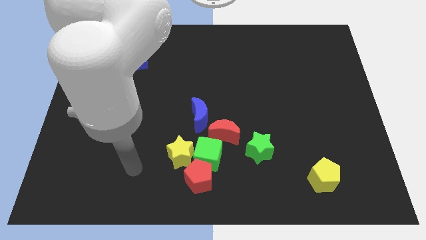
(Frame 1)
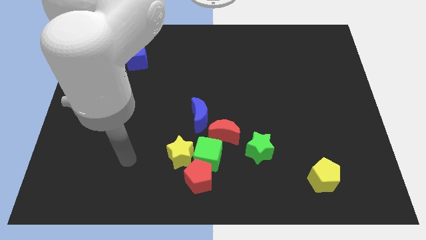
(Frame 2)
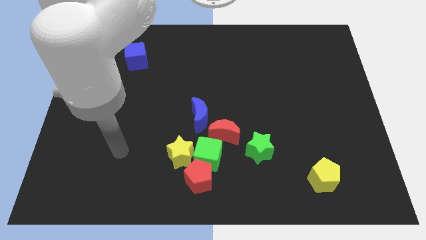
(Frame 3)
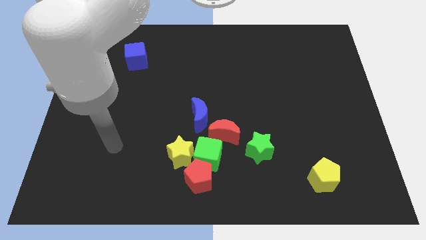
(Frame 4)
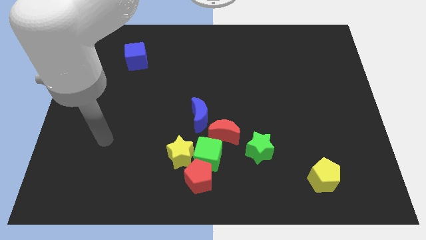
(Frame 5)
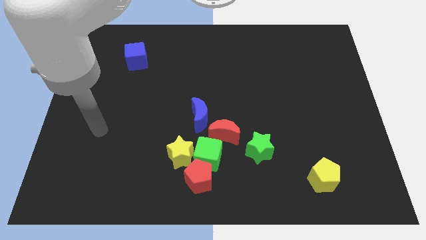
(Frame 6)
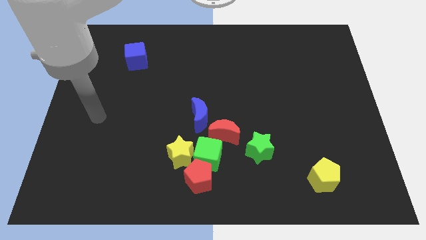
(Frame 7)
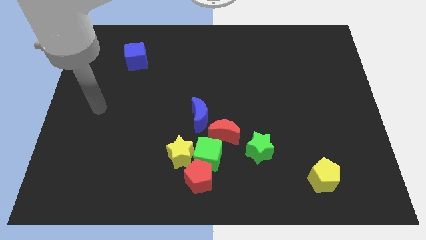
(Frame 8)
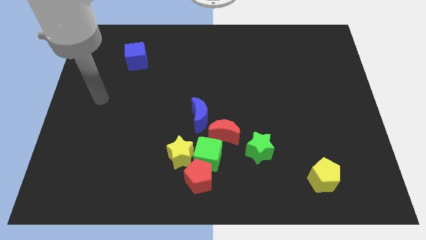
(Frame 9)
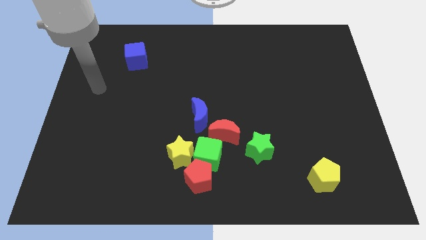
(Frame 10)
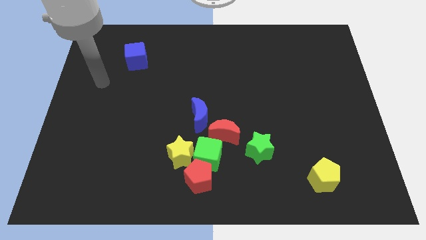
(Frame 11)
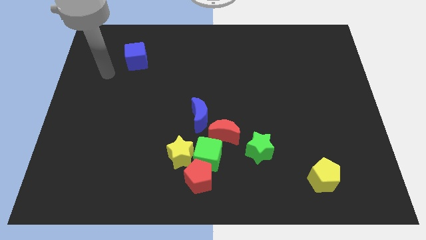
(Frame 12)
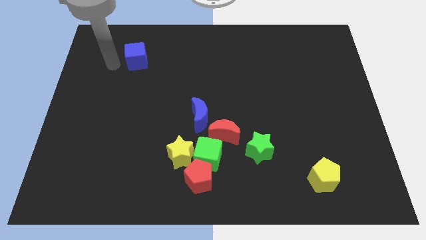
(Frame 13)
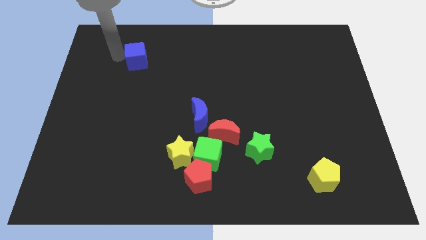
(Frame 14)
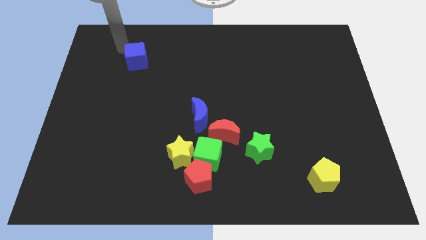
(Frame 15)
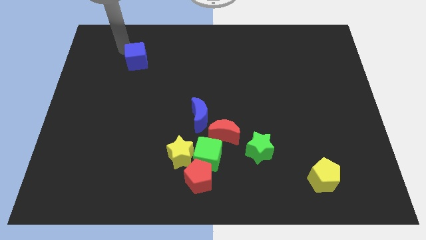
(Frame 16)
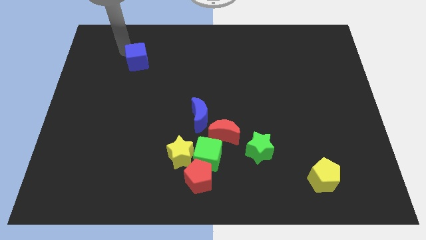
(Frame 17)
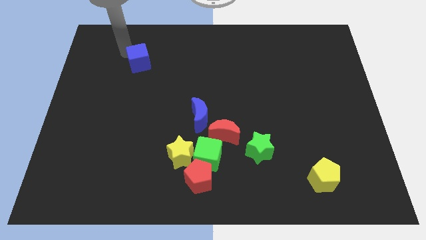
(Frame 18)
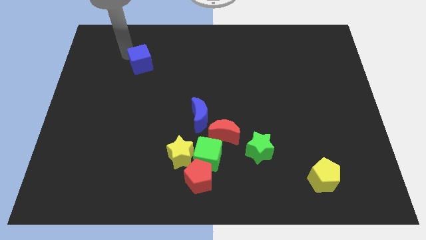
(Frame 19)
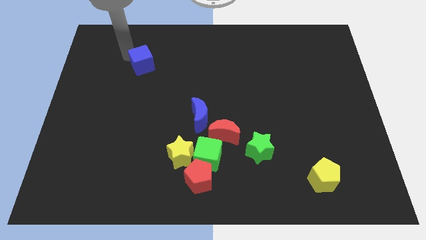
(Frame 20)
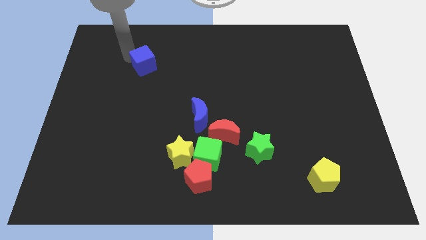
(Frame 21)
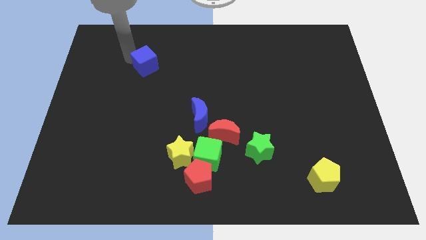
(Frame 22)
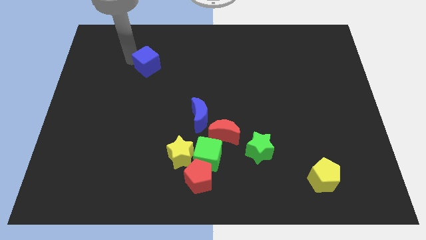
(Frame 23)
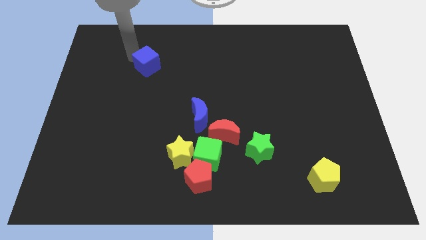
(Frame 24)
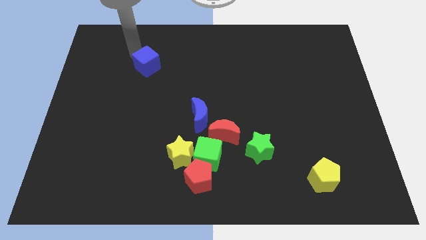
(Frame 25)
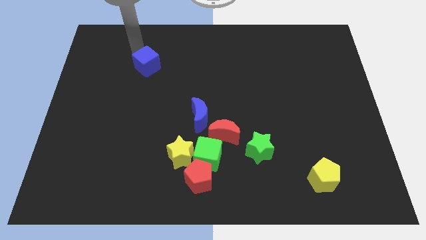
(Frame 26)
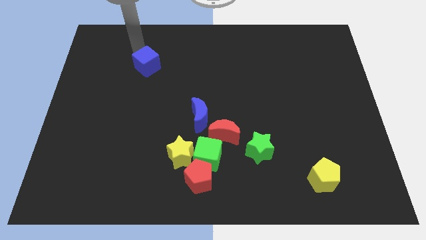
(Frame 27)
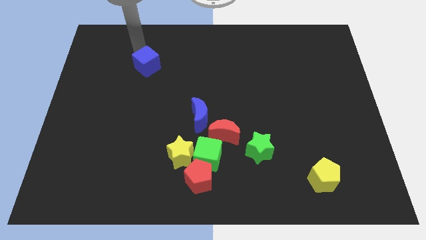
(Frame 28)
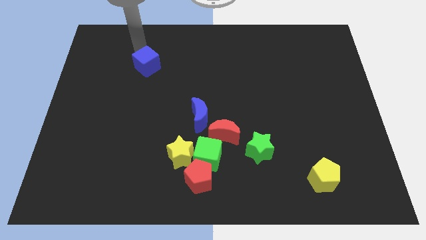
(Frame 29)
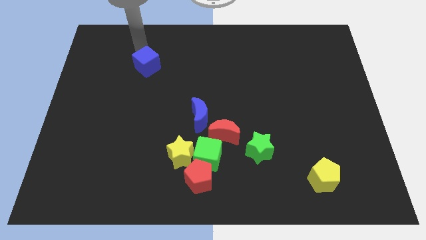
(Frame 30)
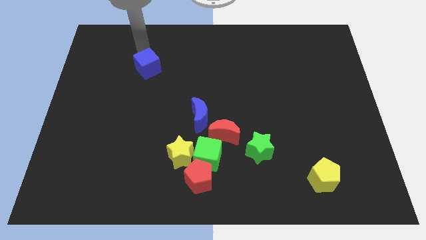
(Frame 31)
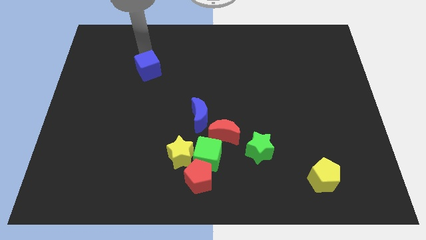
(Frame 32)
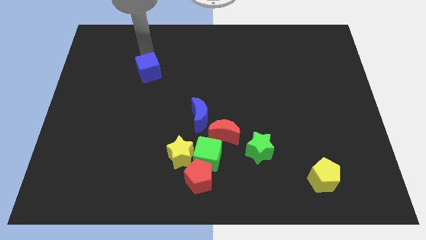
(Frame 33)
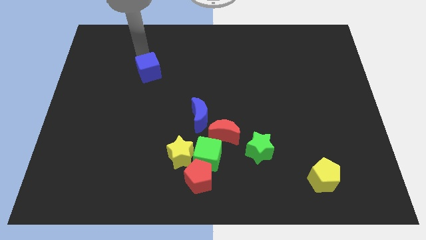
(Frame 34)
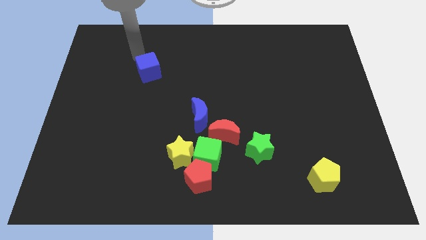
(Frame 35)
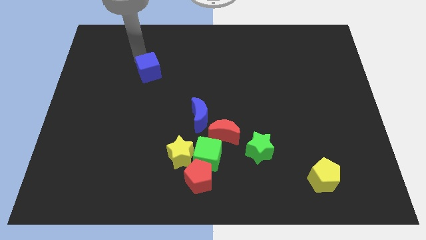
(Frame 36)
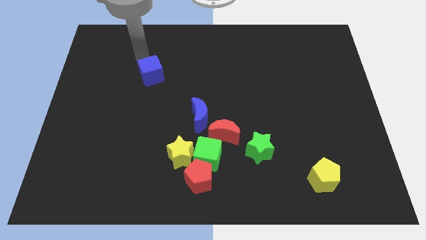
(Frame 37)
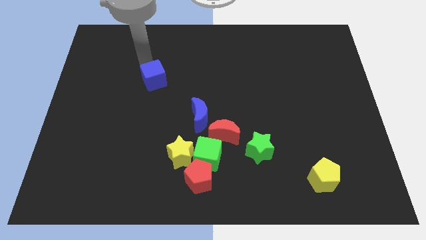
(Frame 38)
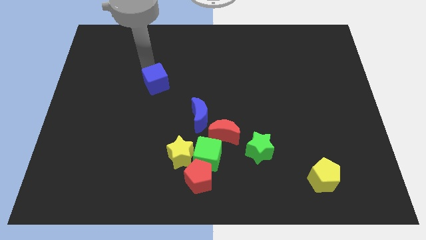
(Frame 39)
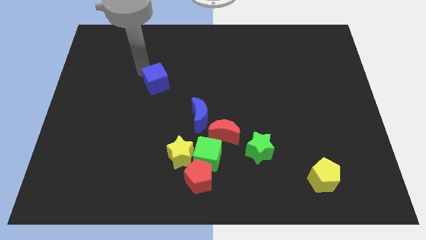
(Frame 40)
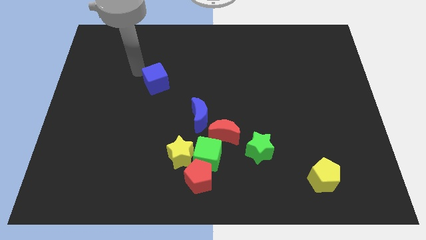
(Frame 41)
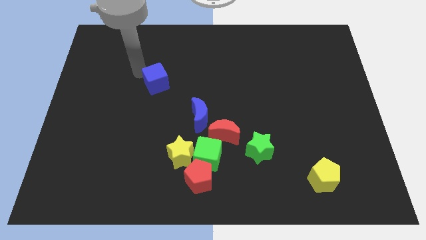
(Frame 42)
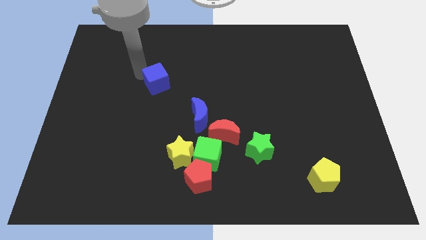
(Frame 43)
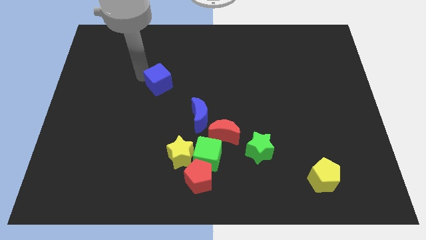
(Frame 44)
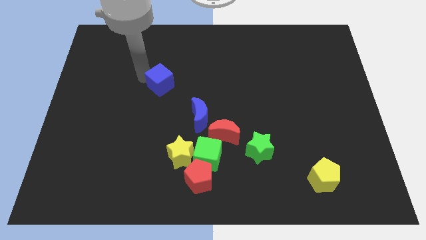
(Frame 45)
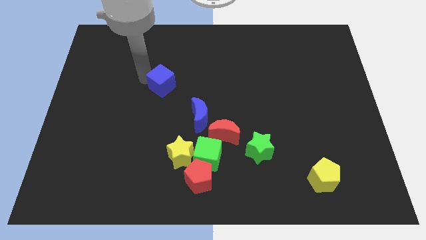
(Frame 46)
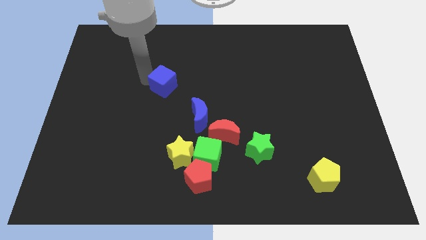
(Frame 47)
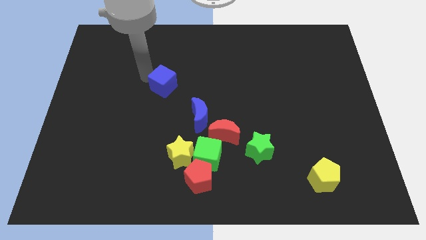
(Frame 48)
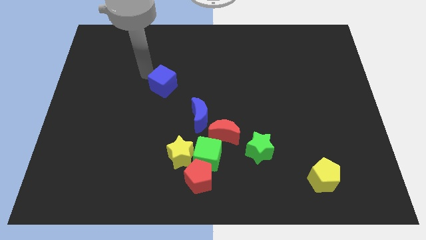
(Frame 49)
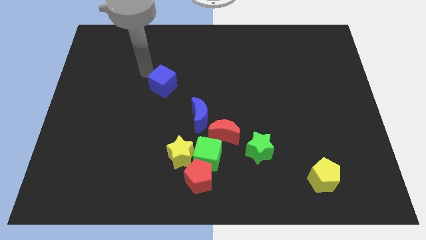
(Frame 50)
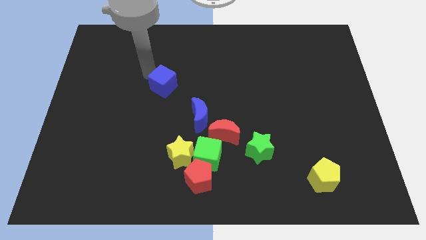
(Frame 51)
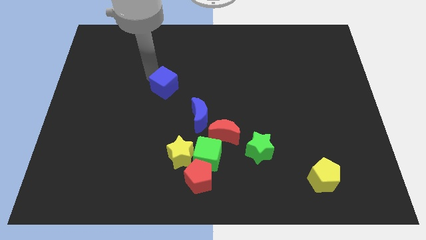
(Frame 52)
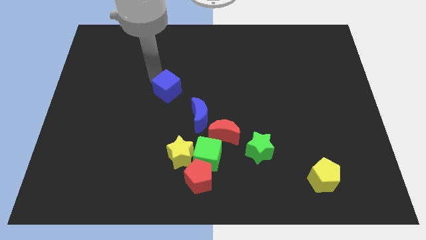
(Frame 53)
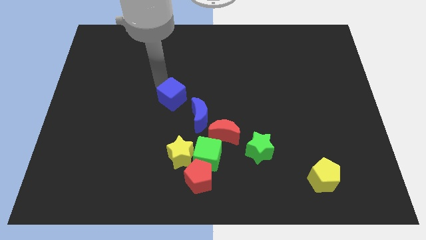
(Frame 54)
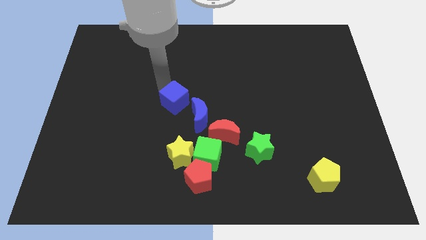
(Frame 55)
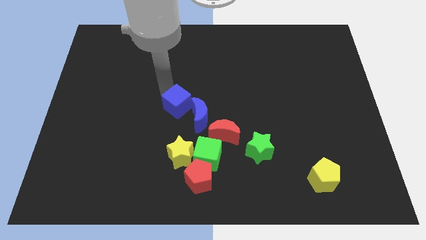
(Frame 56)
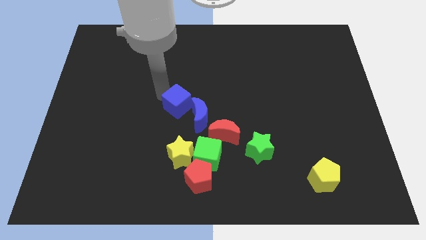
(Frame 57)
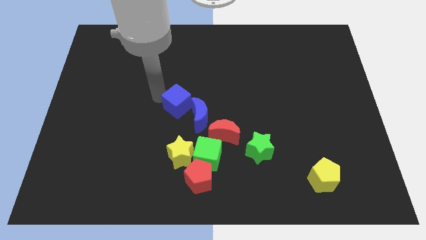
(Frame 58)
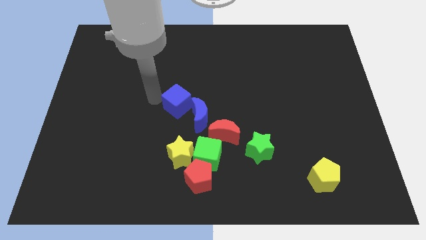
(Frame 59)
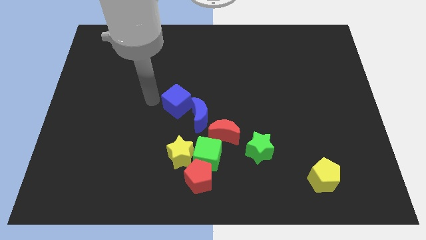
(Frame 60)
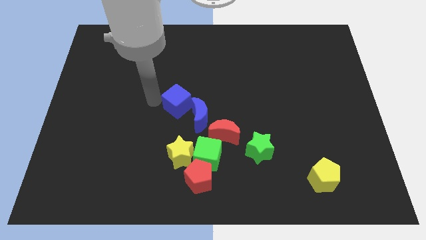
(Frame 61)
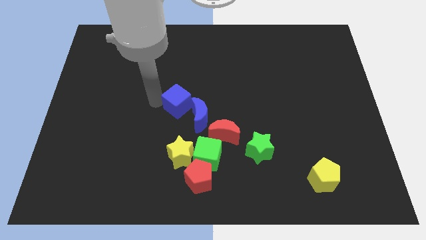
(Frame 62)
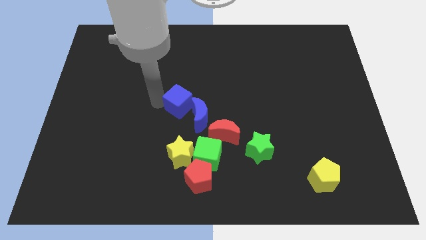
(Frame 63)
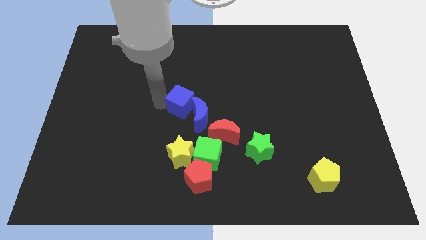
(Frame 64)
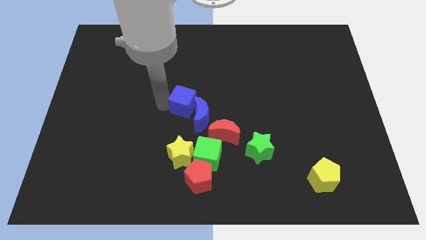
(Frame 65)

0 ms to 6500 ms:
push the blue cube diagonally up and to the left of the red moon

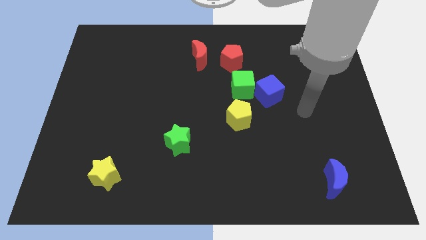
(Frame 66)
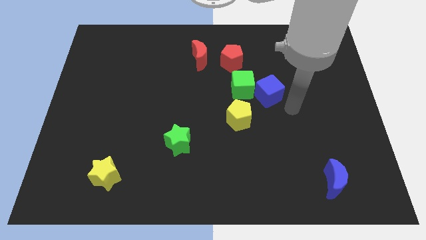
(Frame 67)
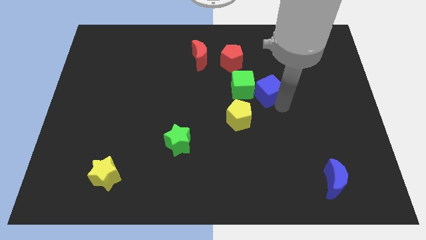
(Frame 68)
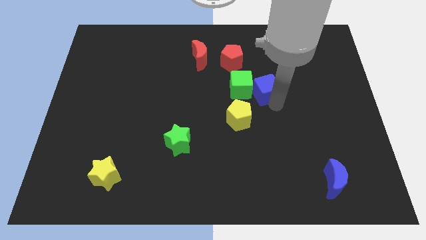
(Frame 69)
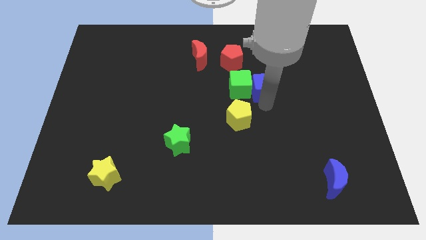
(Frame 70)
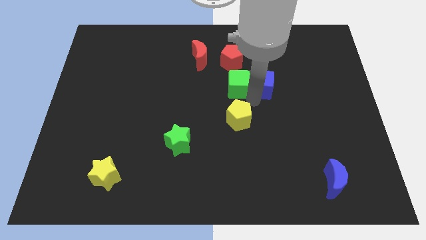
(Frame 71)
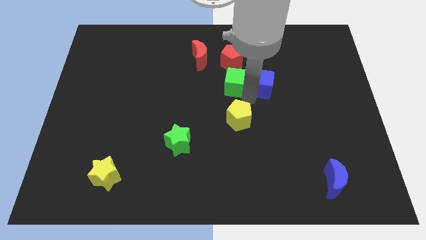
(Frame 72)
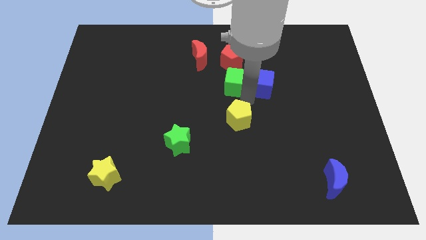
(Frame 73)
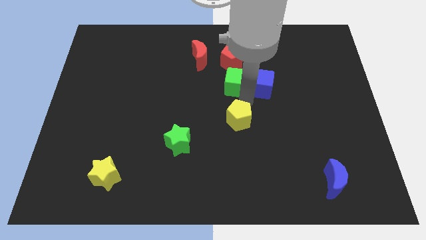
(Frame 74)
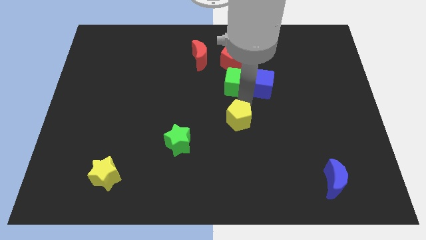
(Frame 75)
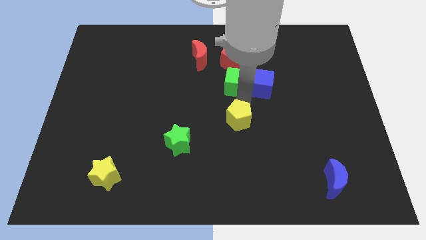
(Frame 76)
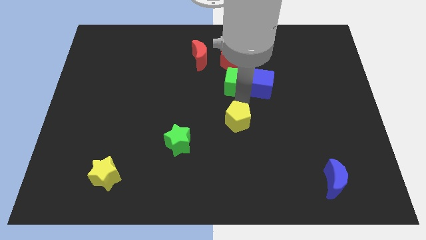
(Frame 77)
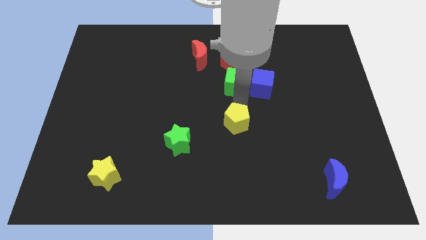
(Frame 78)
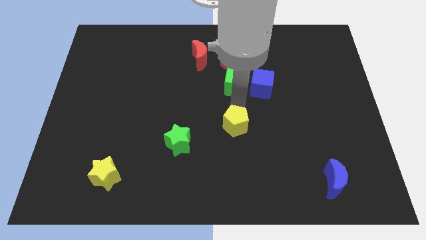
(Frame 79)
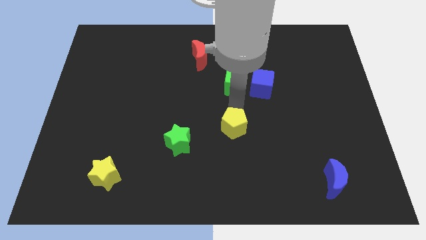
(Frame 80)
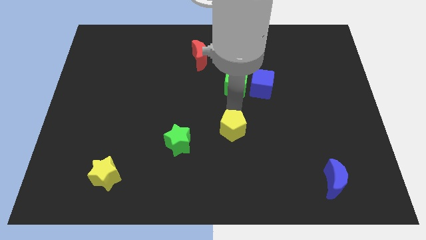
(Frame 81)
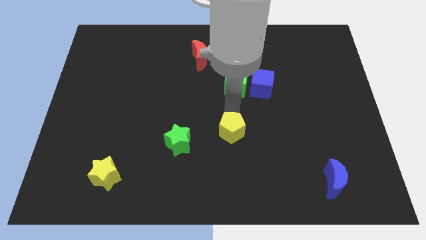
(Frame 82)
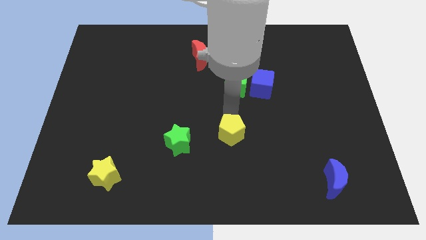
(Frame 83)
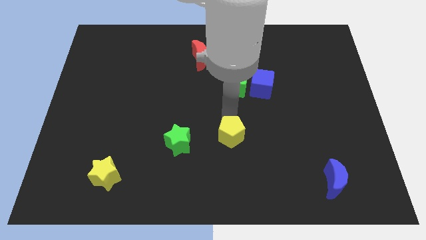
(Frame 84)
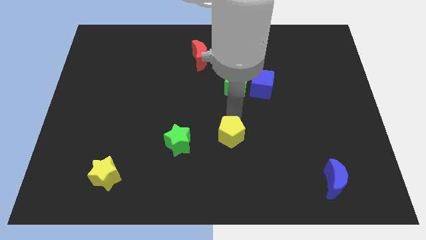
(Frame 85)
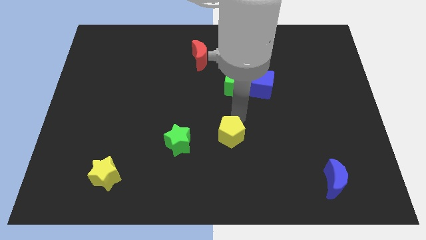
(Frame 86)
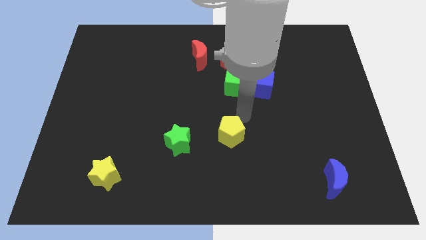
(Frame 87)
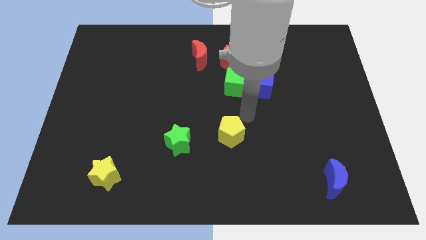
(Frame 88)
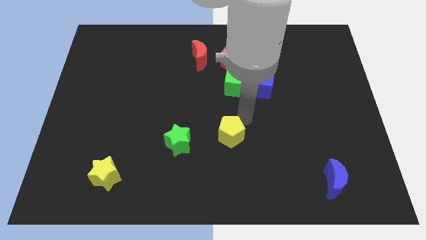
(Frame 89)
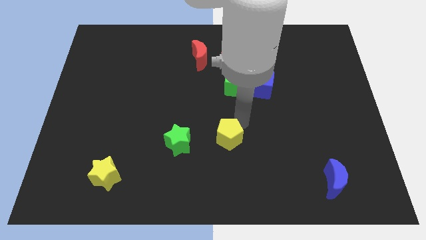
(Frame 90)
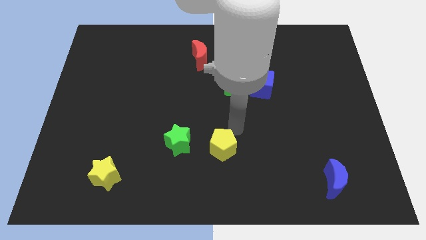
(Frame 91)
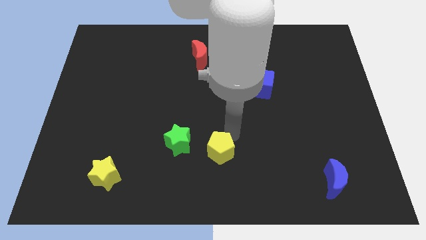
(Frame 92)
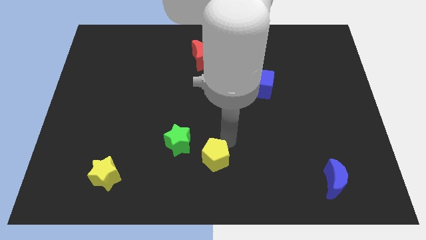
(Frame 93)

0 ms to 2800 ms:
slide the yellow pentagon to the bottom right of the green star
